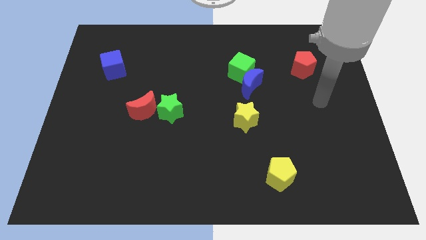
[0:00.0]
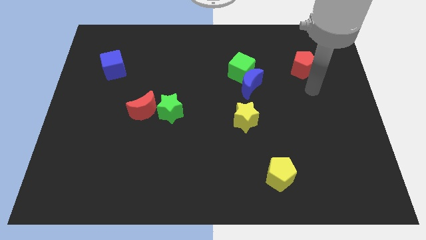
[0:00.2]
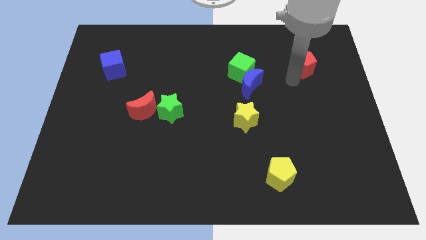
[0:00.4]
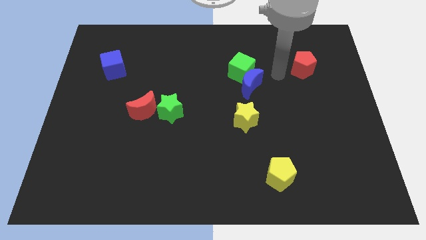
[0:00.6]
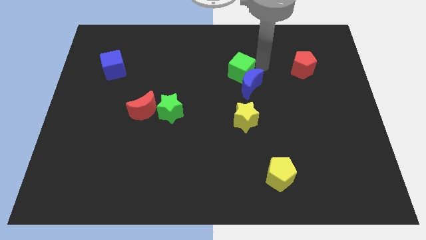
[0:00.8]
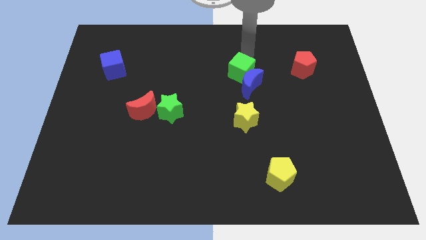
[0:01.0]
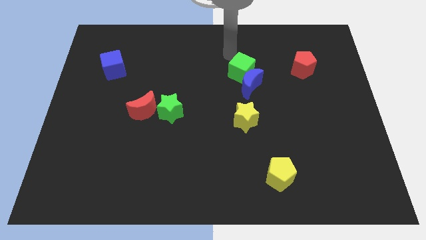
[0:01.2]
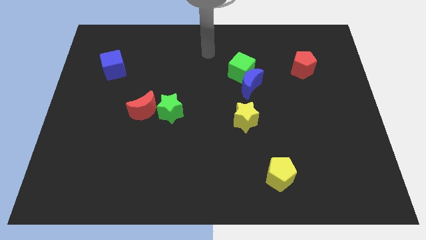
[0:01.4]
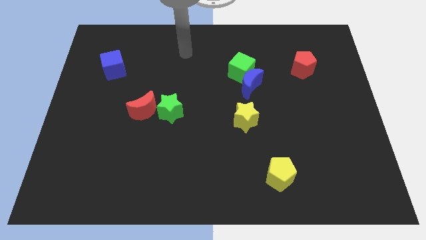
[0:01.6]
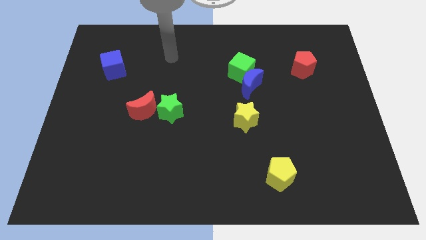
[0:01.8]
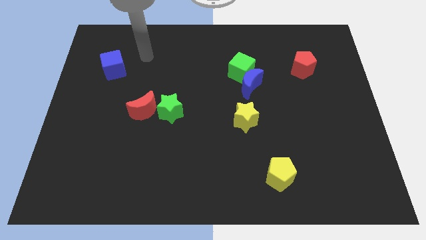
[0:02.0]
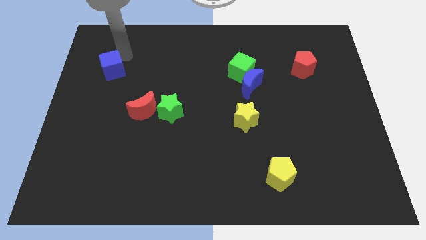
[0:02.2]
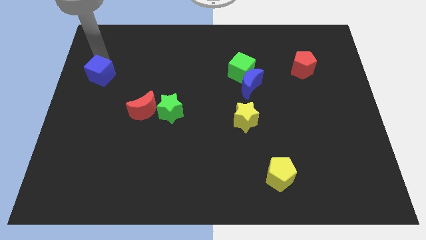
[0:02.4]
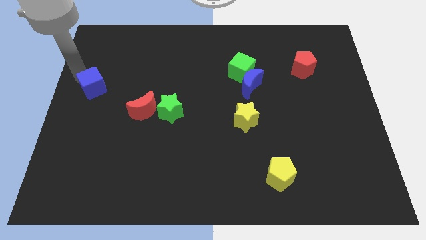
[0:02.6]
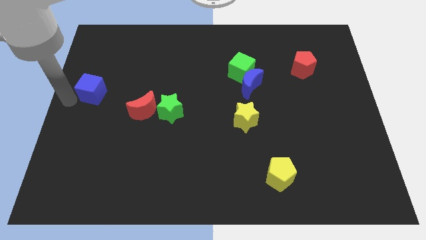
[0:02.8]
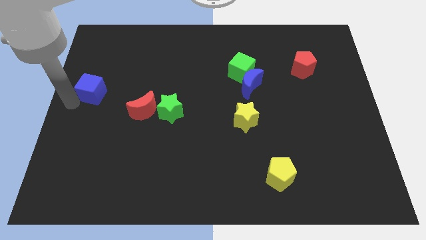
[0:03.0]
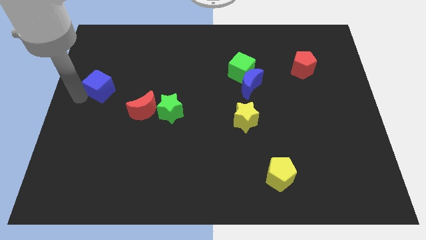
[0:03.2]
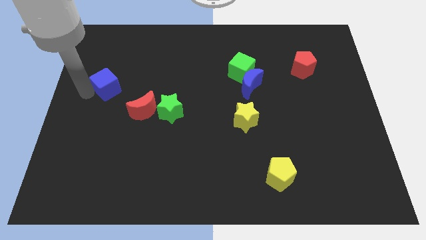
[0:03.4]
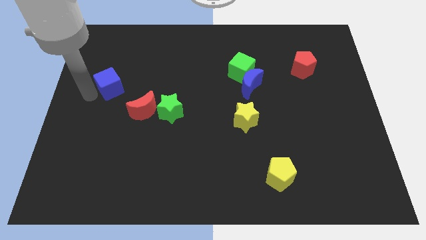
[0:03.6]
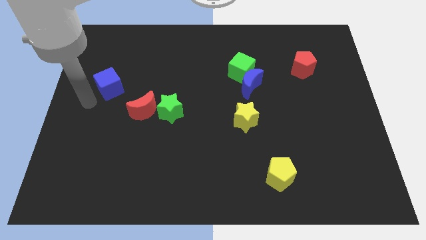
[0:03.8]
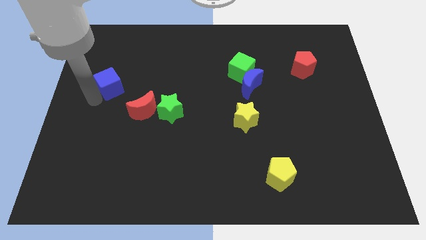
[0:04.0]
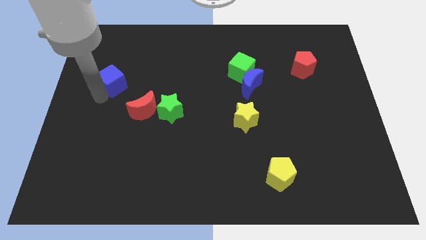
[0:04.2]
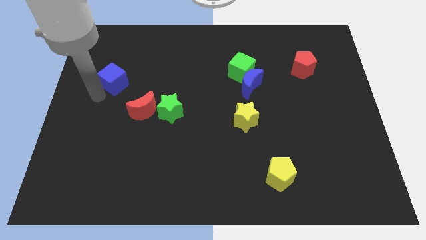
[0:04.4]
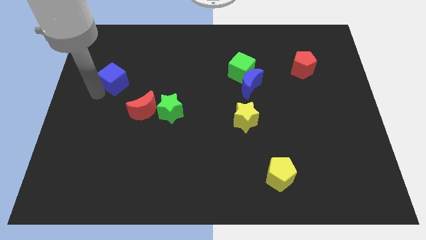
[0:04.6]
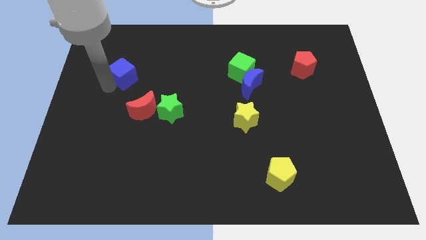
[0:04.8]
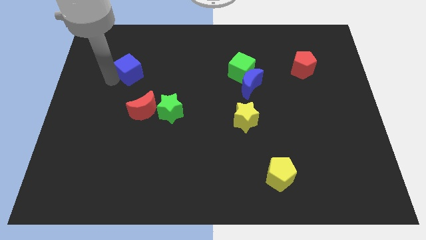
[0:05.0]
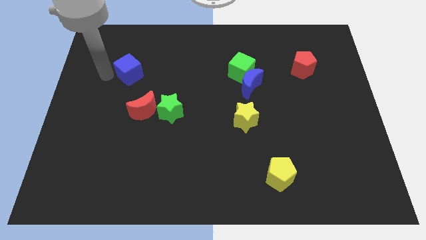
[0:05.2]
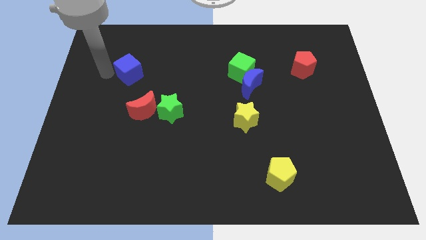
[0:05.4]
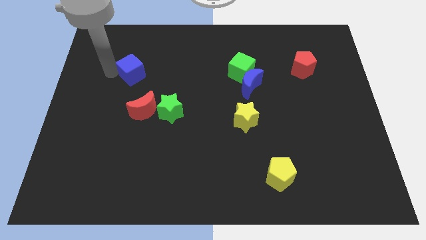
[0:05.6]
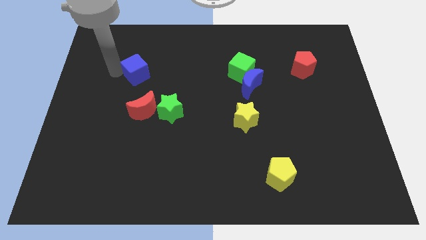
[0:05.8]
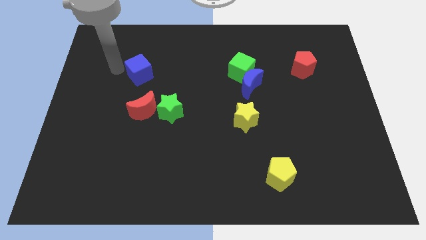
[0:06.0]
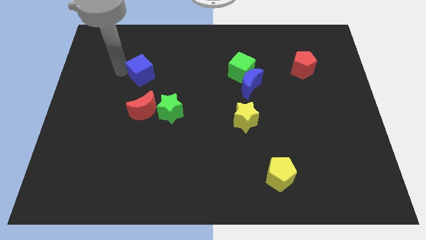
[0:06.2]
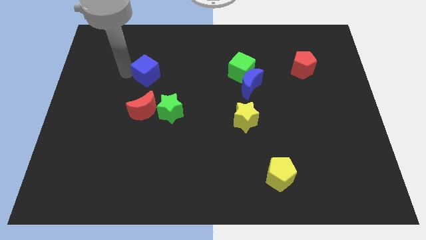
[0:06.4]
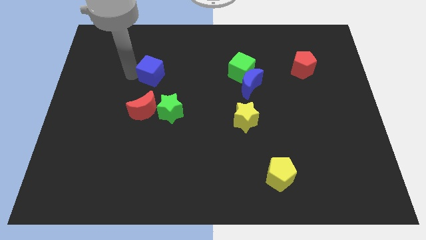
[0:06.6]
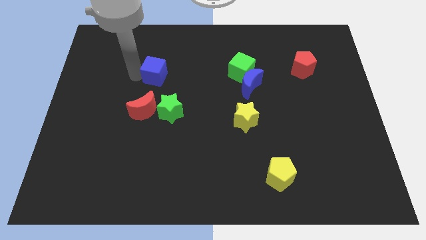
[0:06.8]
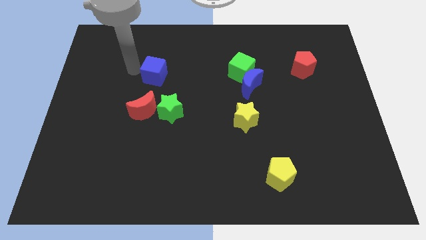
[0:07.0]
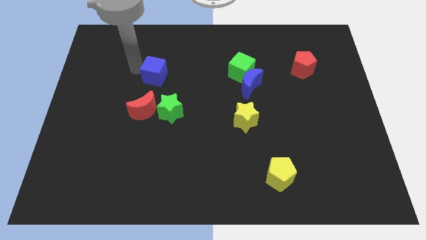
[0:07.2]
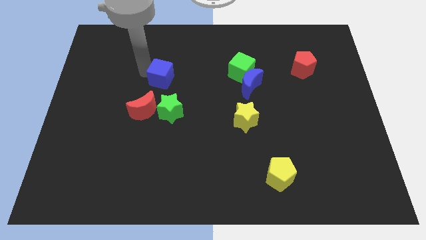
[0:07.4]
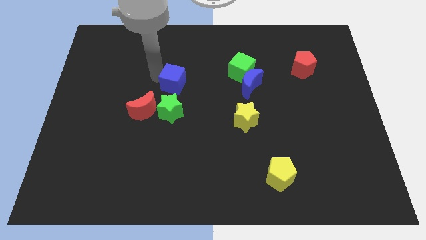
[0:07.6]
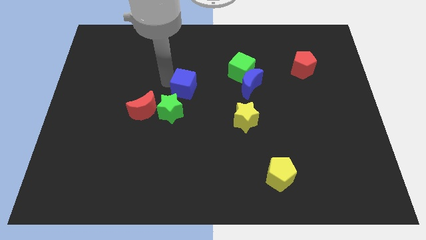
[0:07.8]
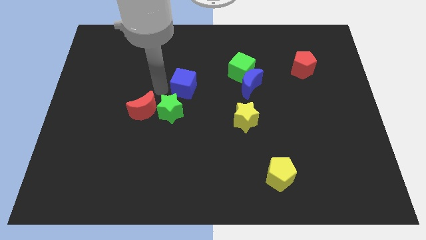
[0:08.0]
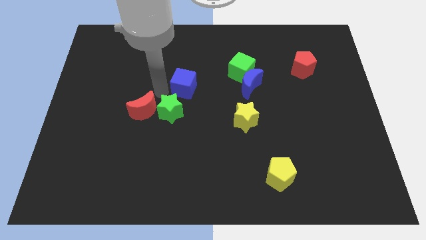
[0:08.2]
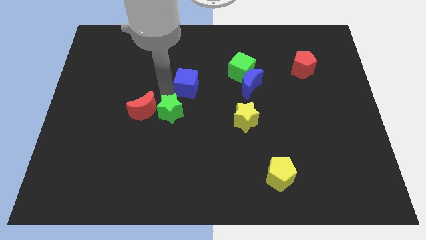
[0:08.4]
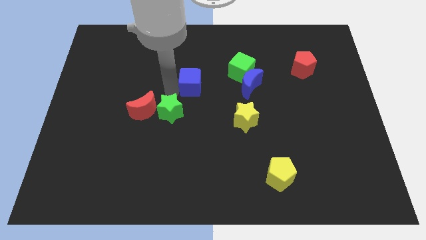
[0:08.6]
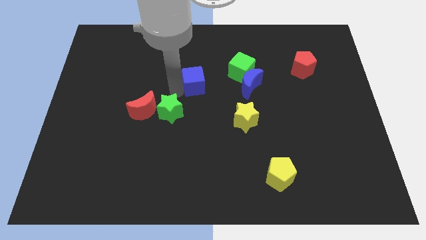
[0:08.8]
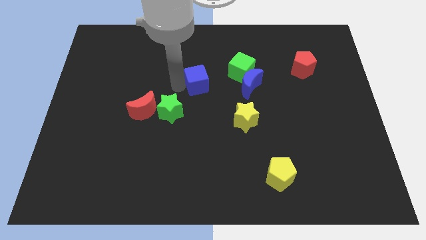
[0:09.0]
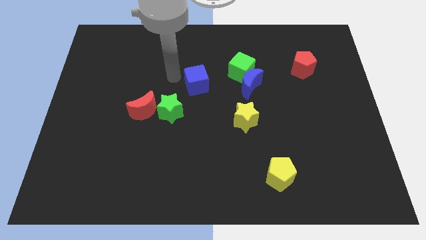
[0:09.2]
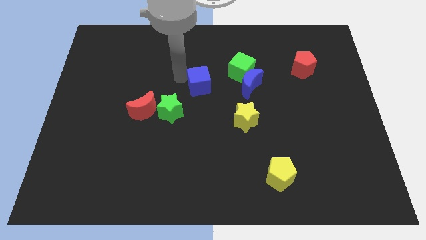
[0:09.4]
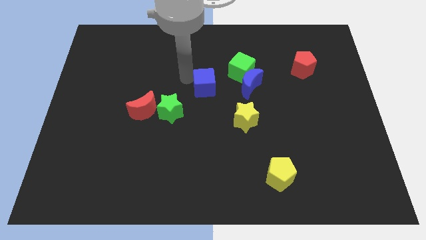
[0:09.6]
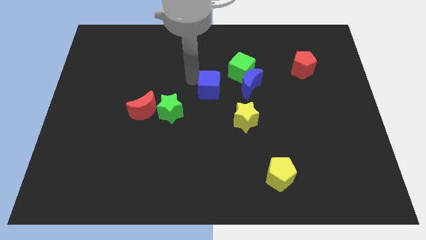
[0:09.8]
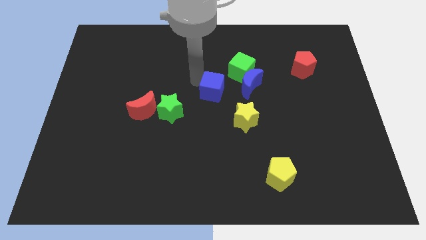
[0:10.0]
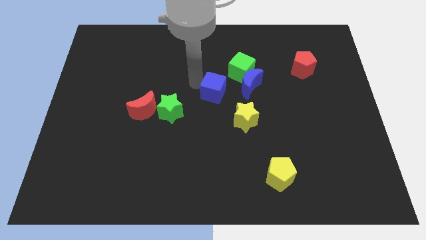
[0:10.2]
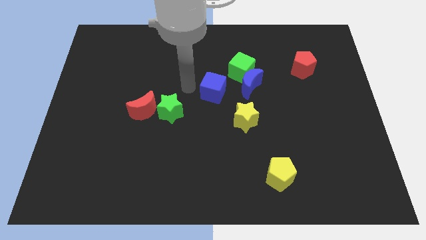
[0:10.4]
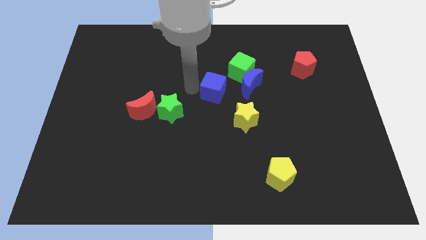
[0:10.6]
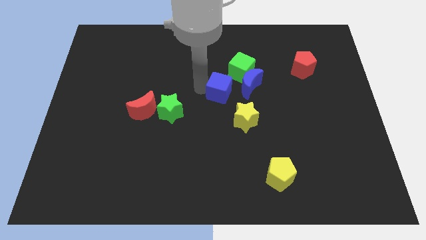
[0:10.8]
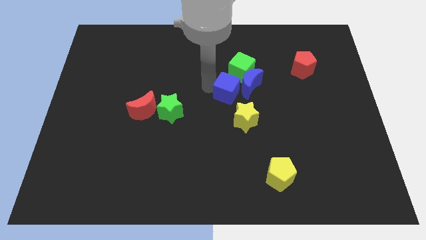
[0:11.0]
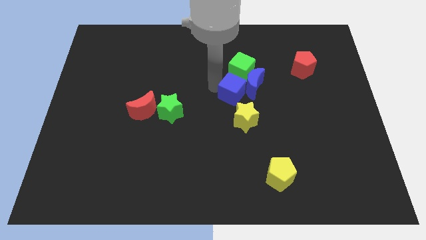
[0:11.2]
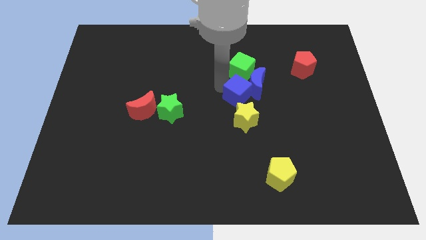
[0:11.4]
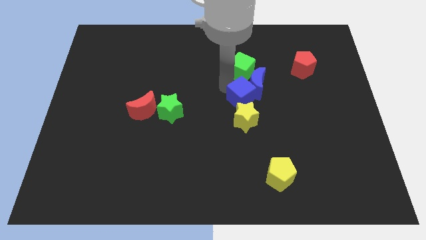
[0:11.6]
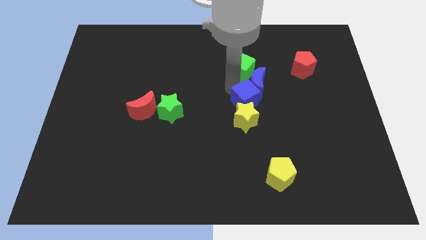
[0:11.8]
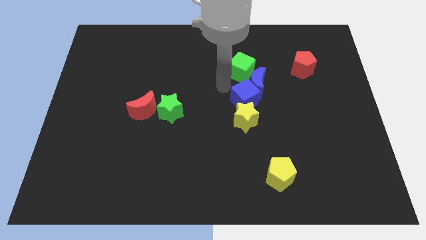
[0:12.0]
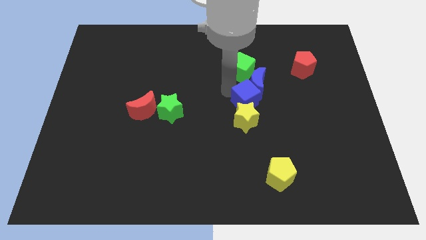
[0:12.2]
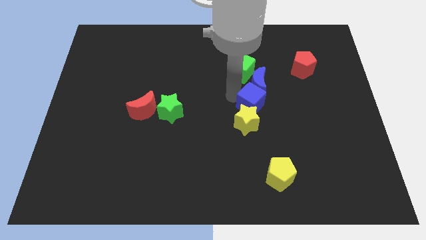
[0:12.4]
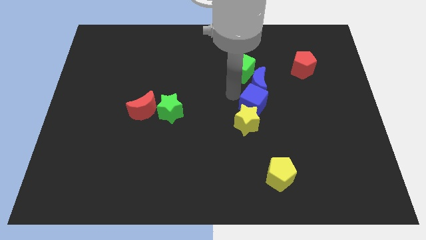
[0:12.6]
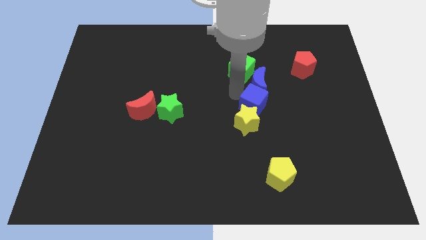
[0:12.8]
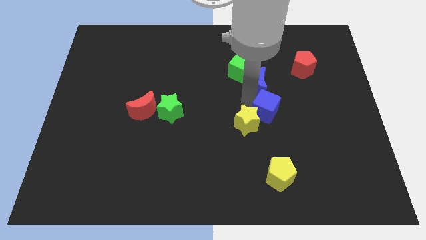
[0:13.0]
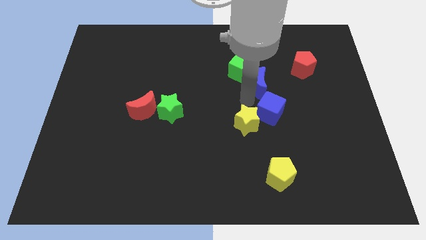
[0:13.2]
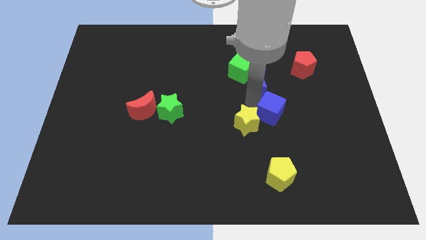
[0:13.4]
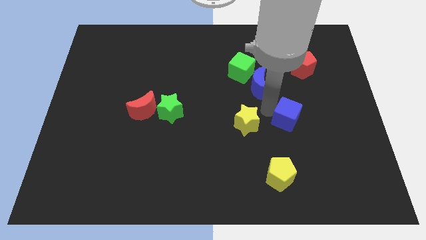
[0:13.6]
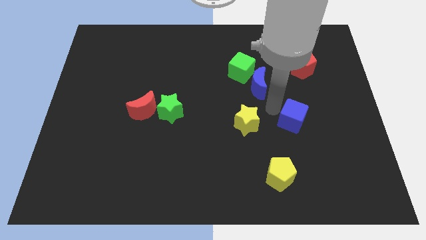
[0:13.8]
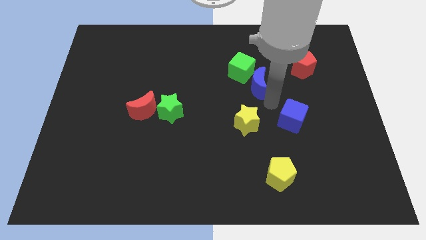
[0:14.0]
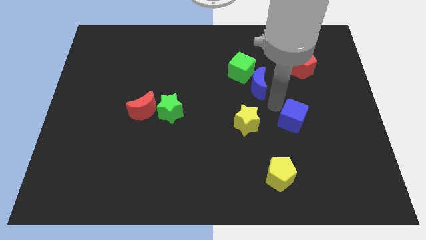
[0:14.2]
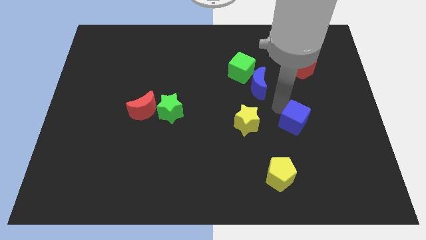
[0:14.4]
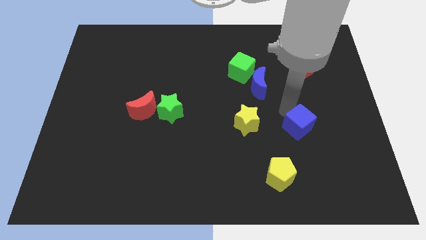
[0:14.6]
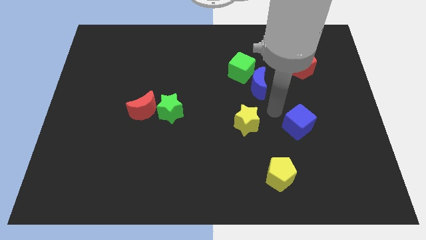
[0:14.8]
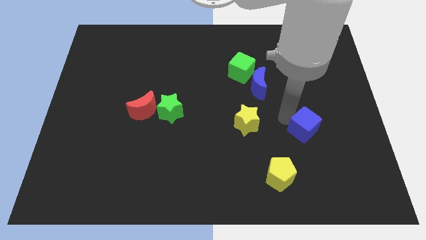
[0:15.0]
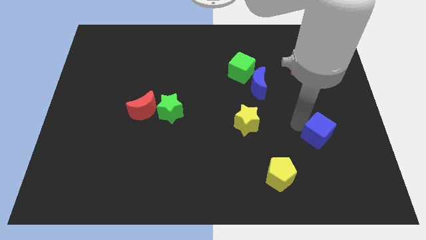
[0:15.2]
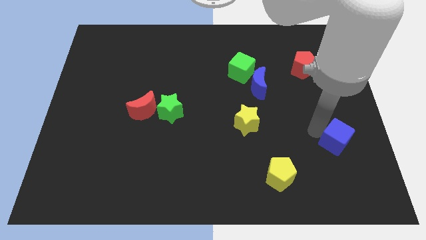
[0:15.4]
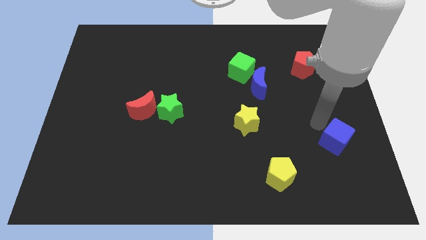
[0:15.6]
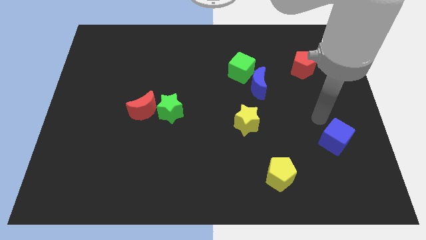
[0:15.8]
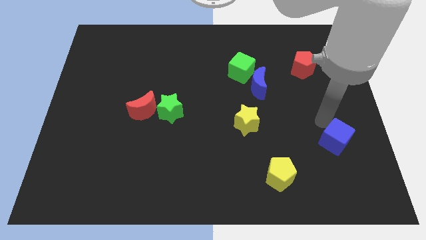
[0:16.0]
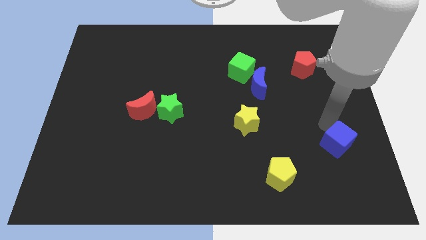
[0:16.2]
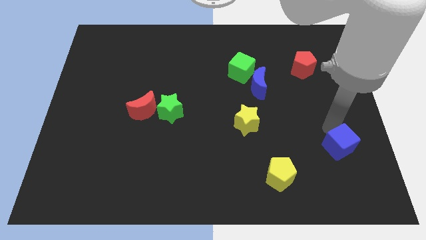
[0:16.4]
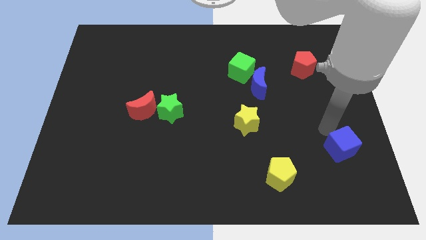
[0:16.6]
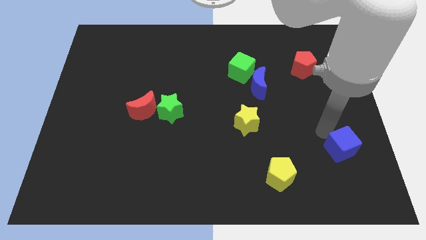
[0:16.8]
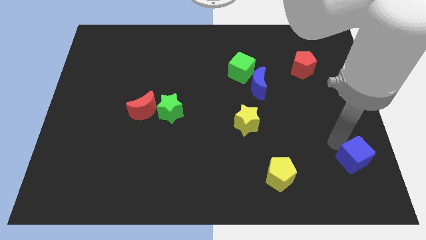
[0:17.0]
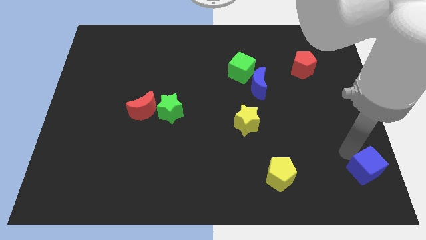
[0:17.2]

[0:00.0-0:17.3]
push the blue cube to the bottom right corner

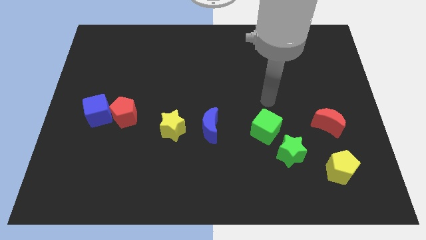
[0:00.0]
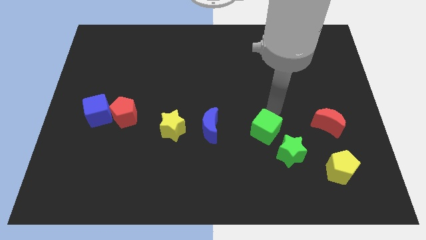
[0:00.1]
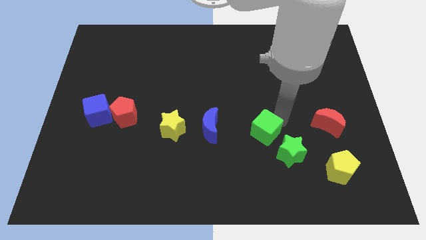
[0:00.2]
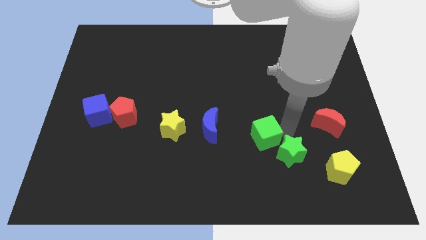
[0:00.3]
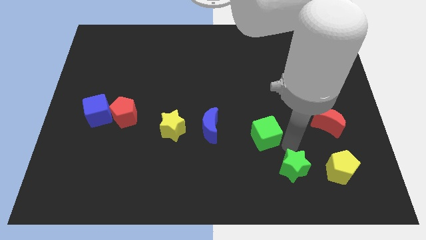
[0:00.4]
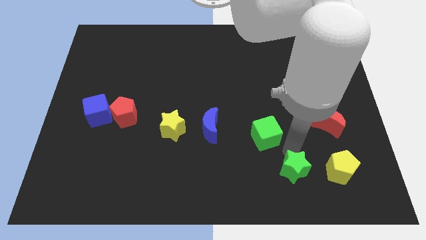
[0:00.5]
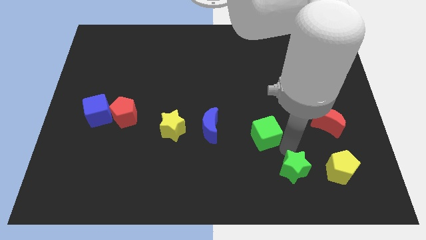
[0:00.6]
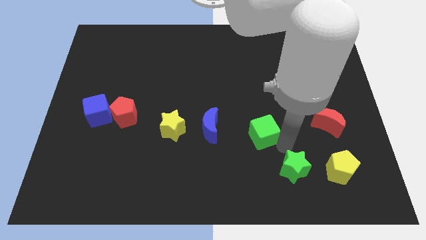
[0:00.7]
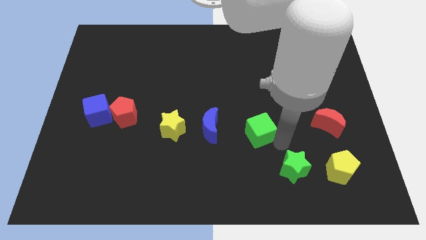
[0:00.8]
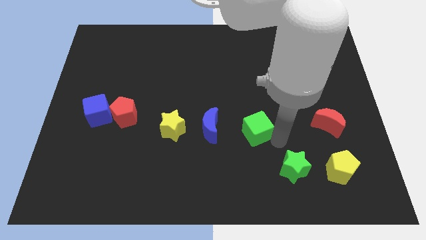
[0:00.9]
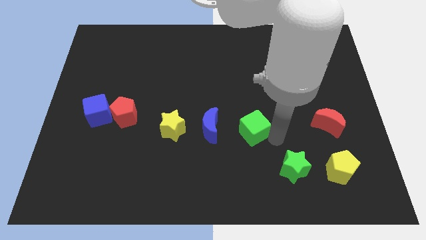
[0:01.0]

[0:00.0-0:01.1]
put the green cube to the center of the board
